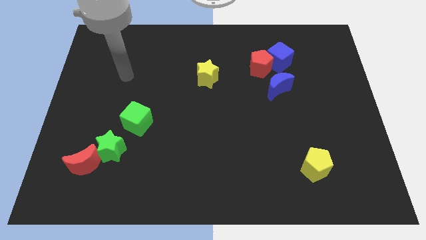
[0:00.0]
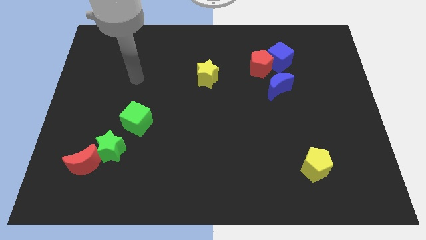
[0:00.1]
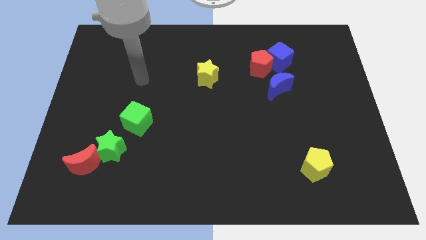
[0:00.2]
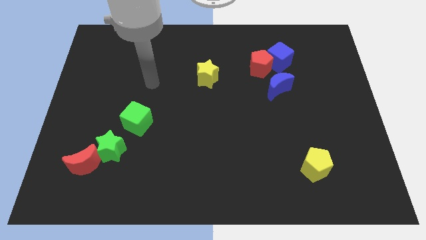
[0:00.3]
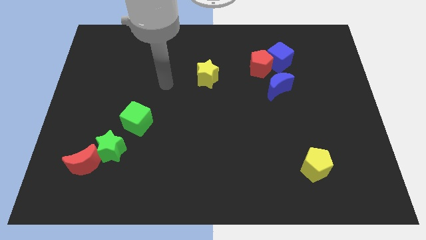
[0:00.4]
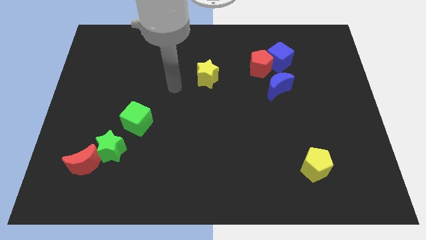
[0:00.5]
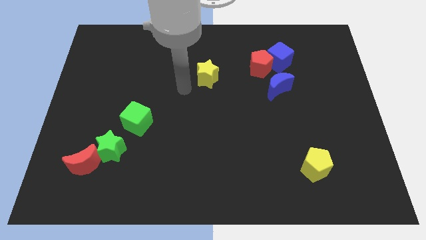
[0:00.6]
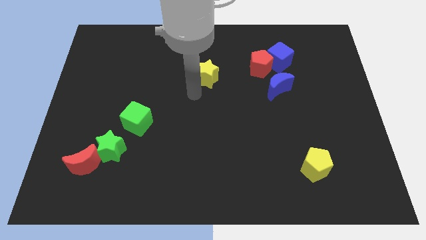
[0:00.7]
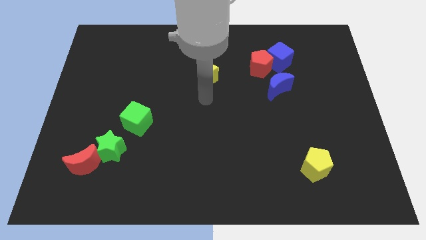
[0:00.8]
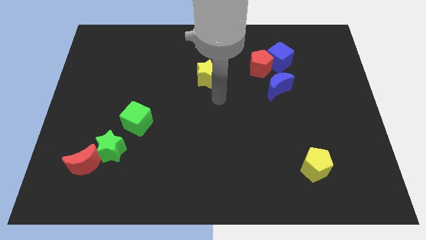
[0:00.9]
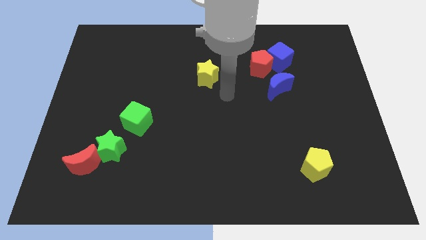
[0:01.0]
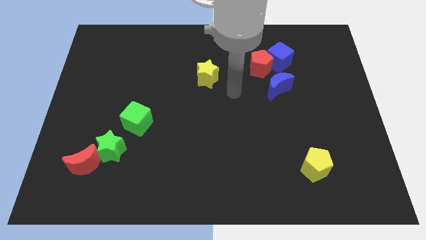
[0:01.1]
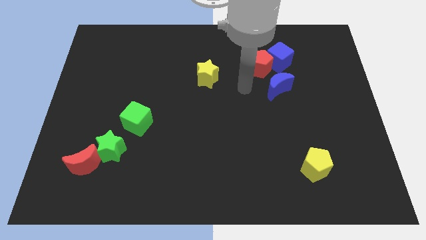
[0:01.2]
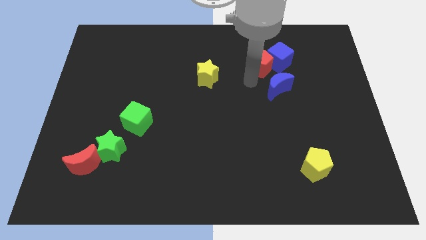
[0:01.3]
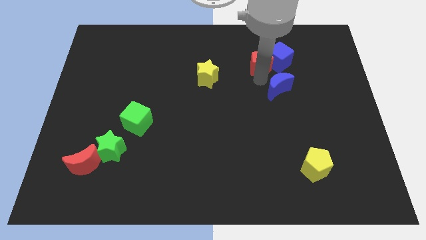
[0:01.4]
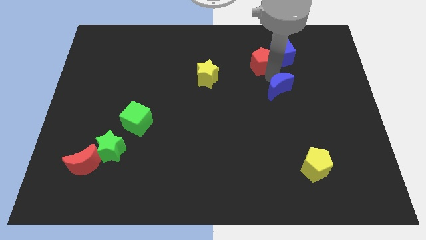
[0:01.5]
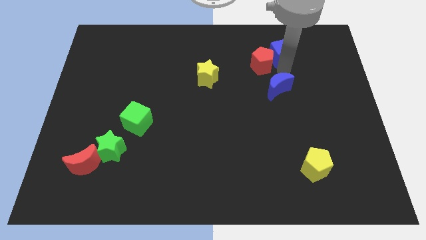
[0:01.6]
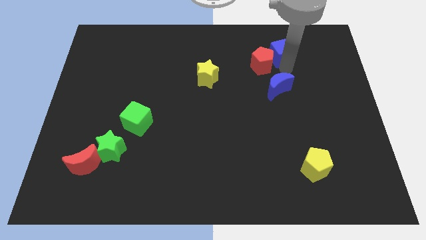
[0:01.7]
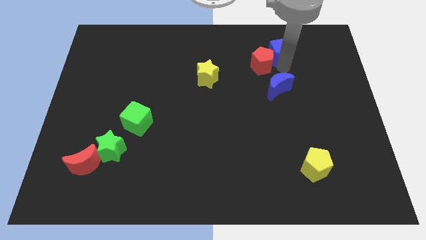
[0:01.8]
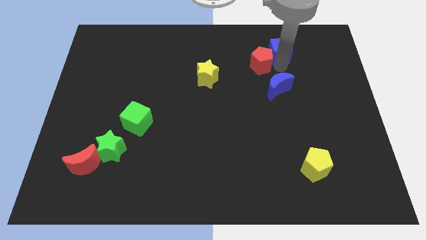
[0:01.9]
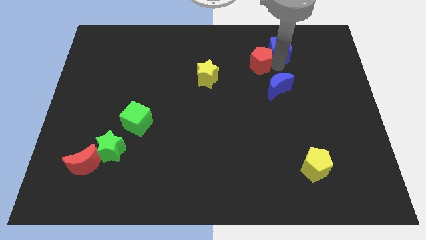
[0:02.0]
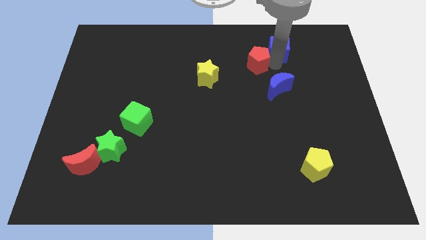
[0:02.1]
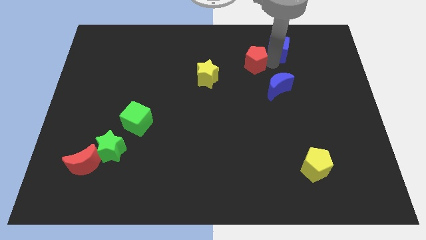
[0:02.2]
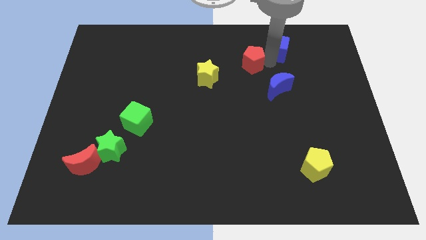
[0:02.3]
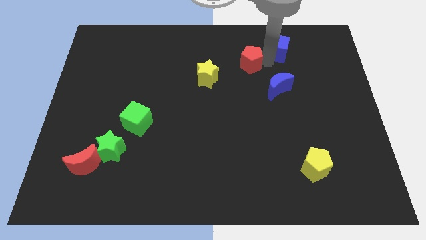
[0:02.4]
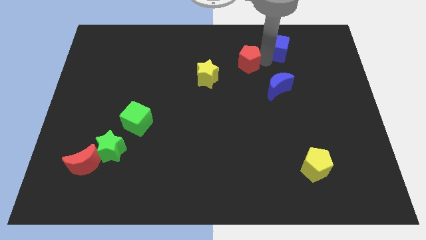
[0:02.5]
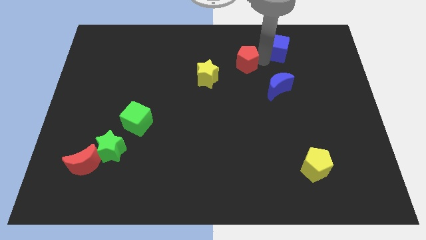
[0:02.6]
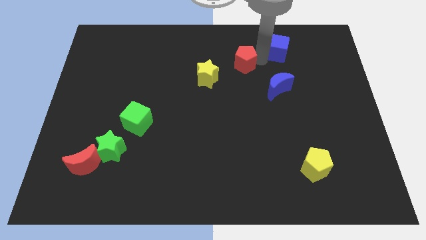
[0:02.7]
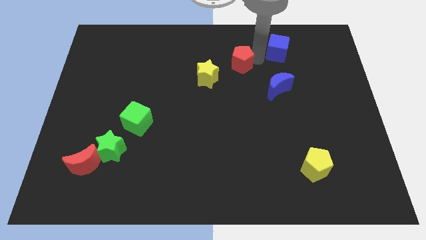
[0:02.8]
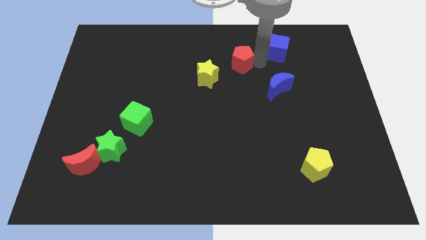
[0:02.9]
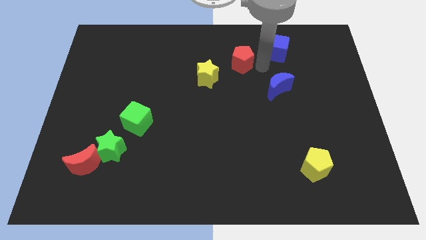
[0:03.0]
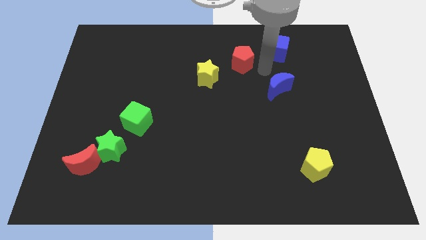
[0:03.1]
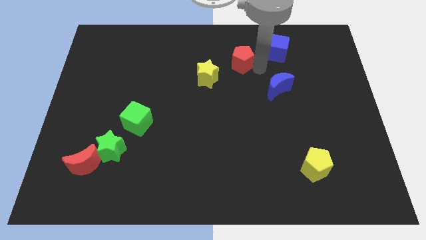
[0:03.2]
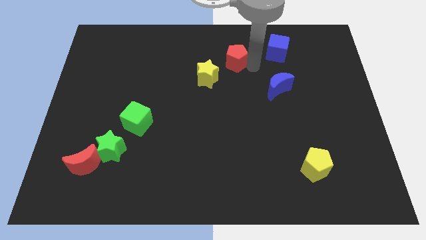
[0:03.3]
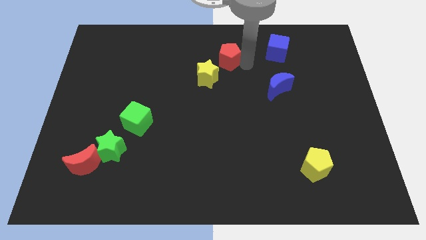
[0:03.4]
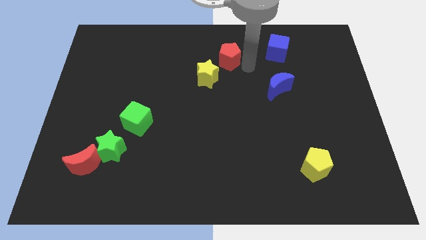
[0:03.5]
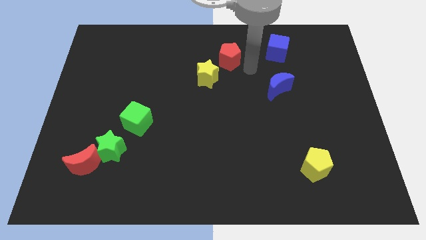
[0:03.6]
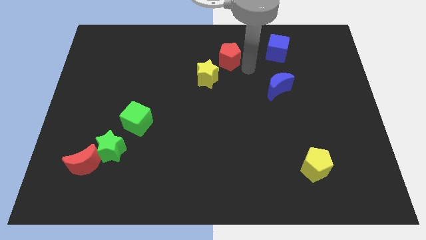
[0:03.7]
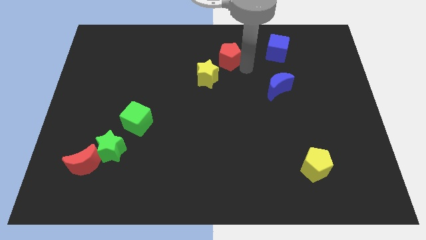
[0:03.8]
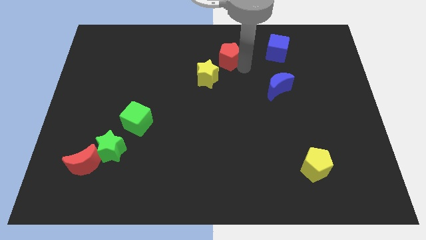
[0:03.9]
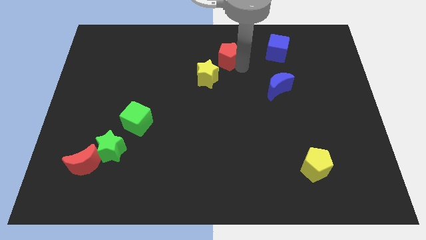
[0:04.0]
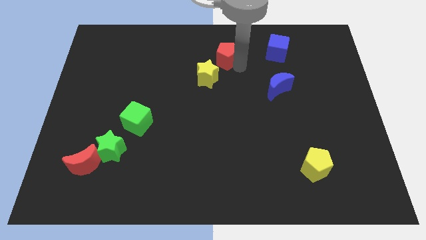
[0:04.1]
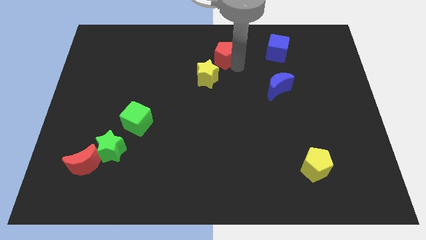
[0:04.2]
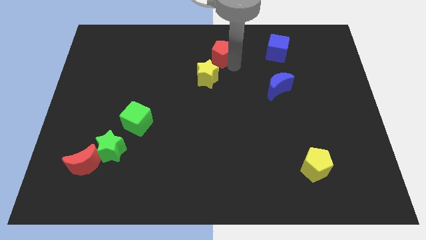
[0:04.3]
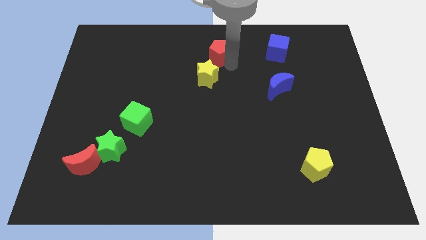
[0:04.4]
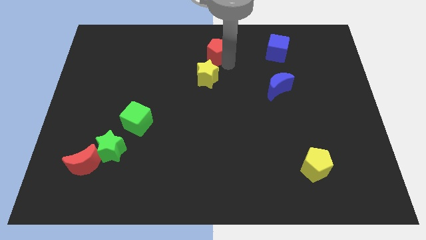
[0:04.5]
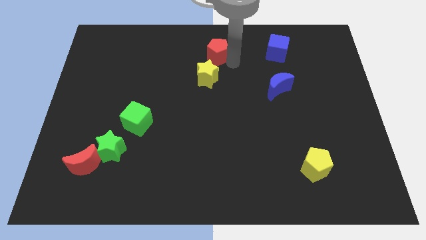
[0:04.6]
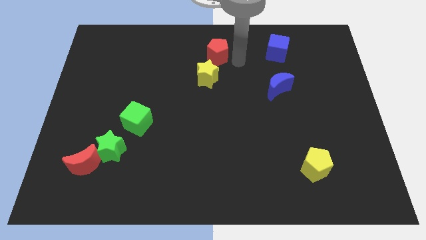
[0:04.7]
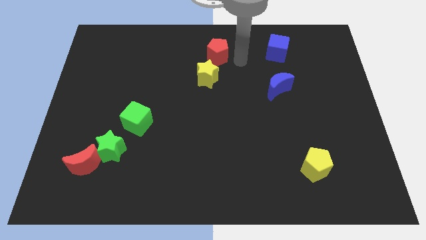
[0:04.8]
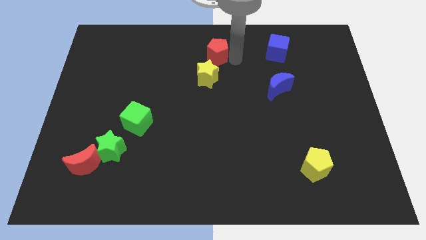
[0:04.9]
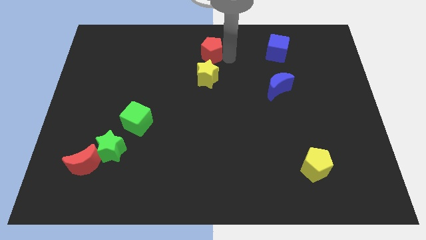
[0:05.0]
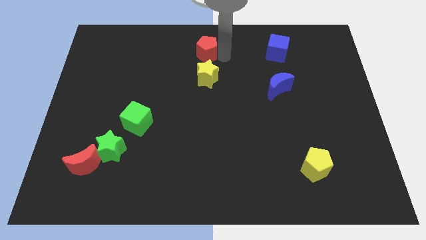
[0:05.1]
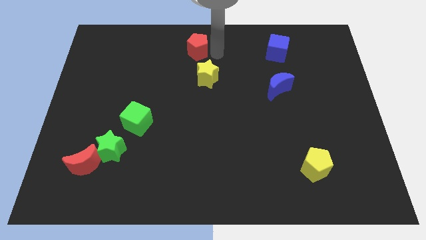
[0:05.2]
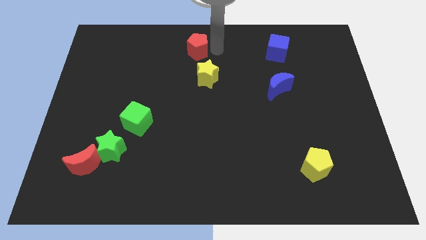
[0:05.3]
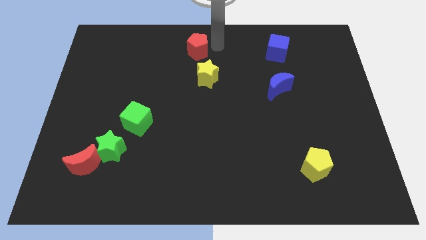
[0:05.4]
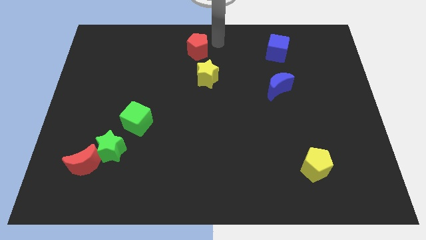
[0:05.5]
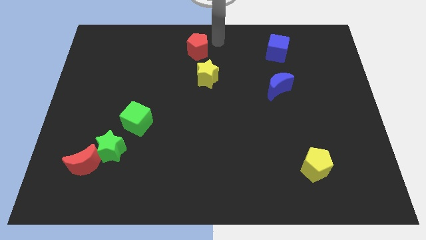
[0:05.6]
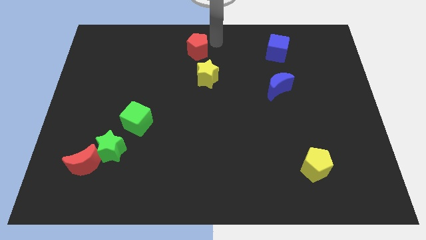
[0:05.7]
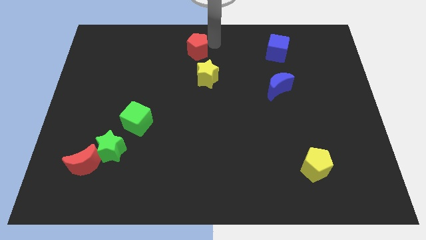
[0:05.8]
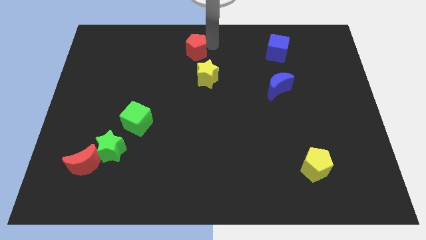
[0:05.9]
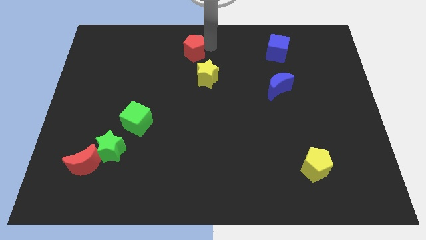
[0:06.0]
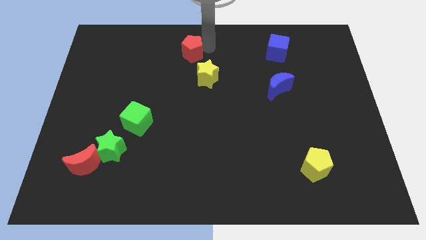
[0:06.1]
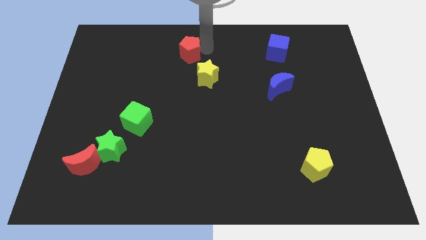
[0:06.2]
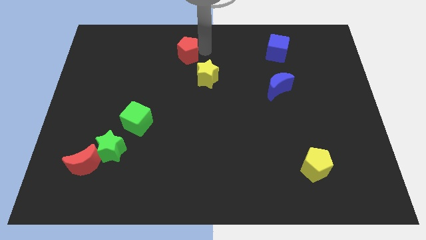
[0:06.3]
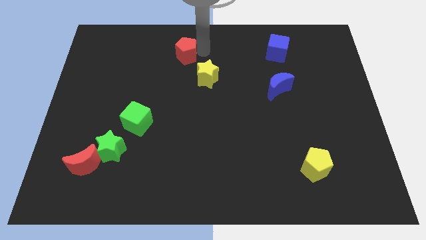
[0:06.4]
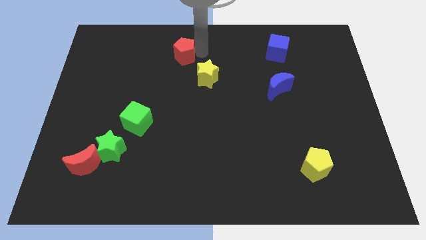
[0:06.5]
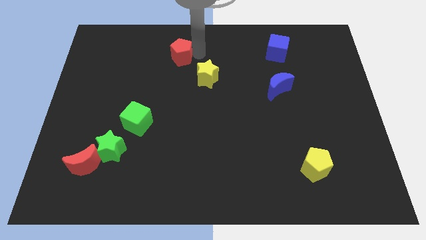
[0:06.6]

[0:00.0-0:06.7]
slide the red pentagon to the left

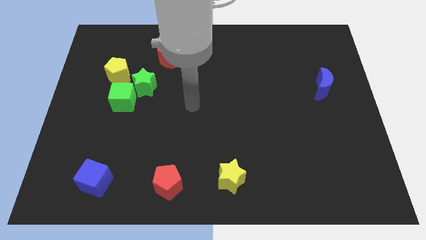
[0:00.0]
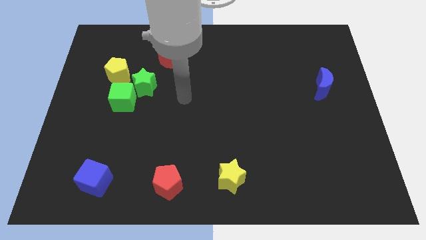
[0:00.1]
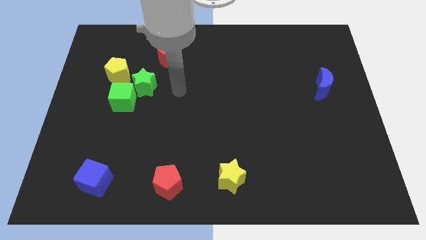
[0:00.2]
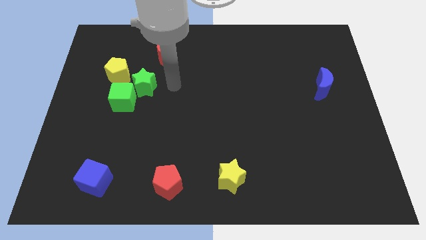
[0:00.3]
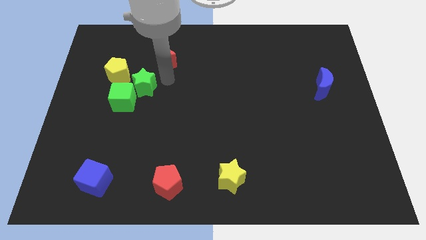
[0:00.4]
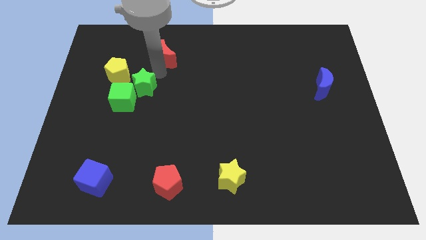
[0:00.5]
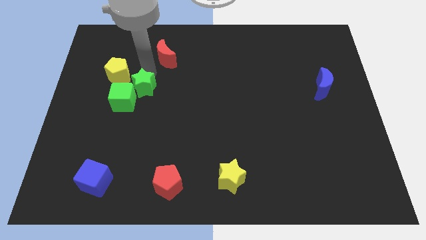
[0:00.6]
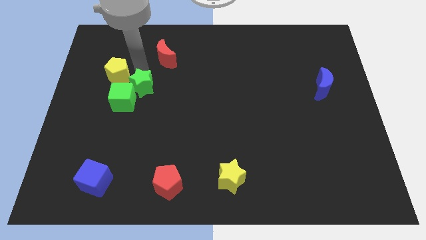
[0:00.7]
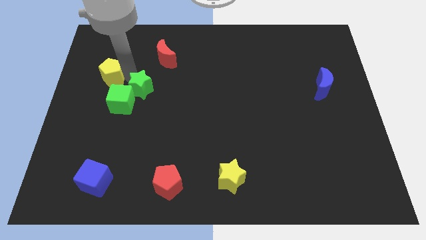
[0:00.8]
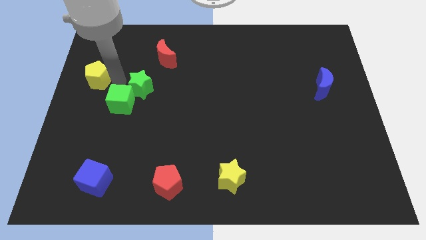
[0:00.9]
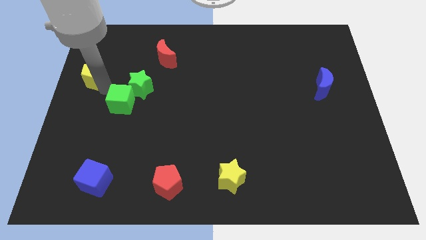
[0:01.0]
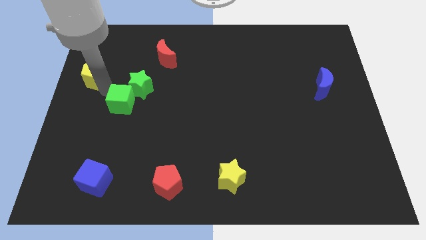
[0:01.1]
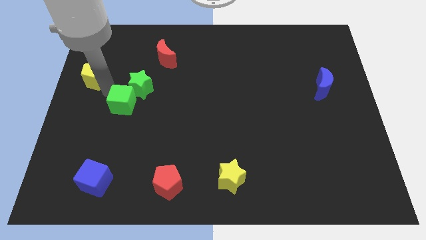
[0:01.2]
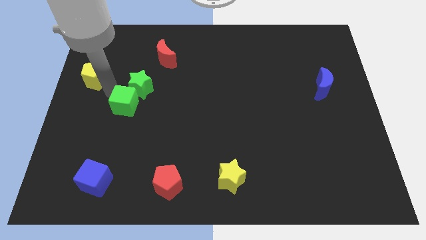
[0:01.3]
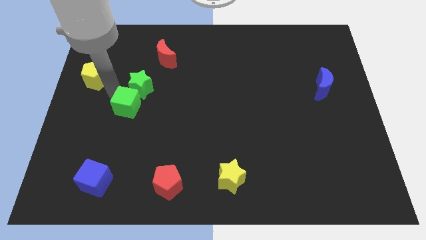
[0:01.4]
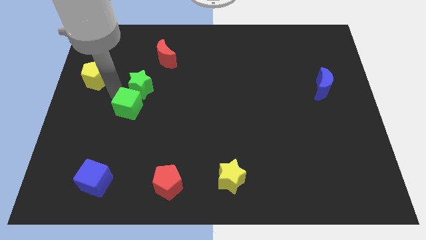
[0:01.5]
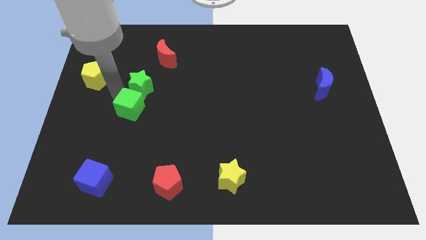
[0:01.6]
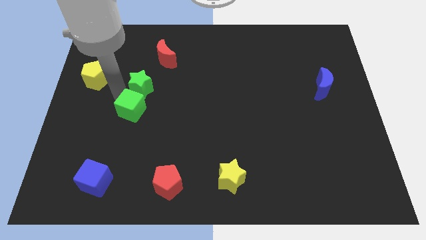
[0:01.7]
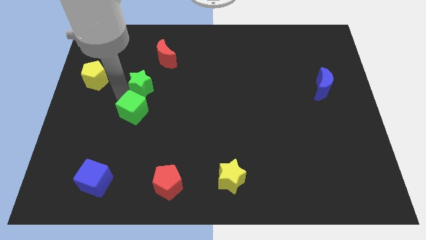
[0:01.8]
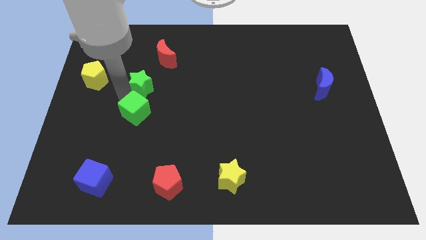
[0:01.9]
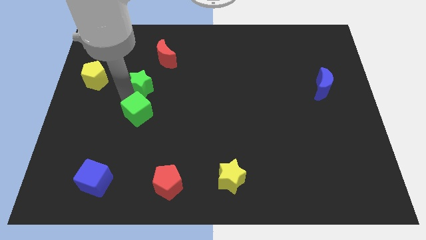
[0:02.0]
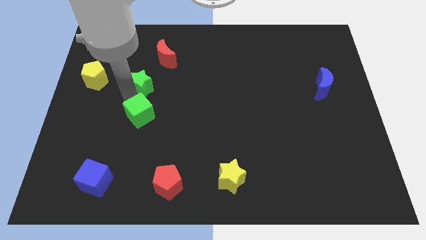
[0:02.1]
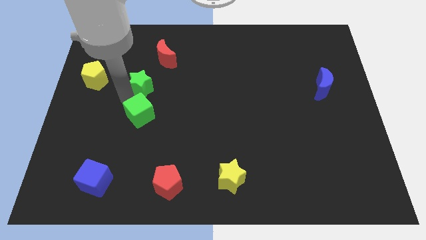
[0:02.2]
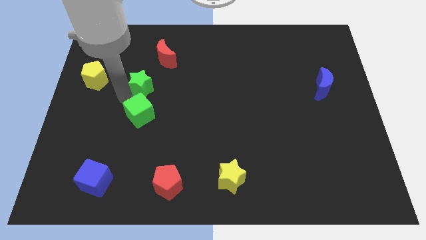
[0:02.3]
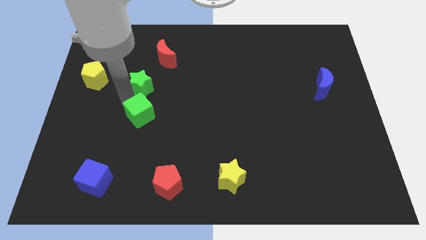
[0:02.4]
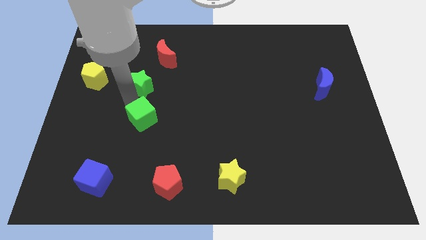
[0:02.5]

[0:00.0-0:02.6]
push the green cube a little diagonally downwards and right
